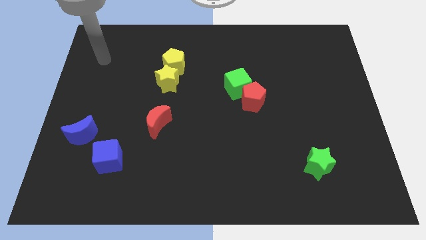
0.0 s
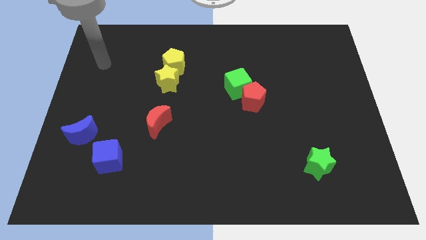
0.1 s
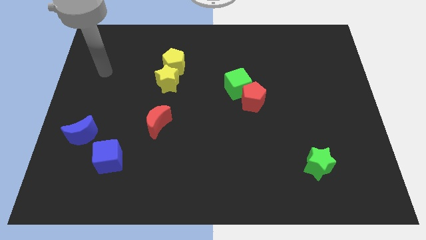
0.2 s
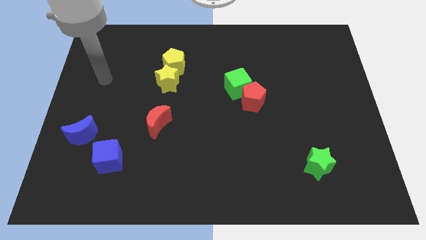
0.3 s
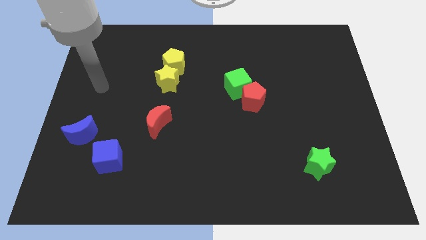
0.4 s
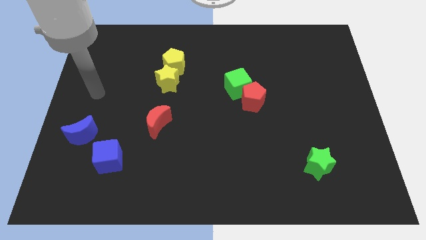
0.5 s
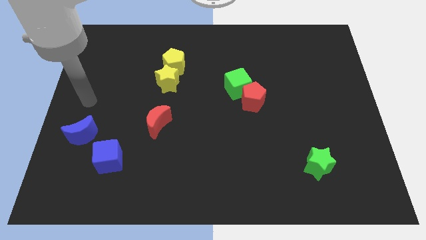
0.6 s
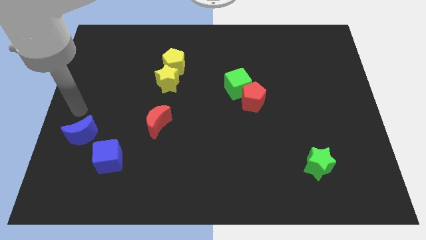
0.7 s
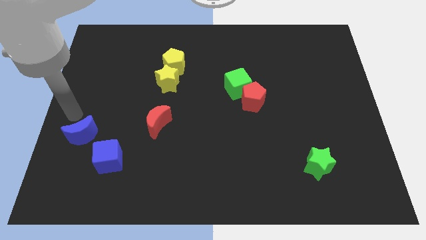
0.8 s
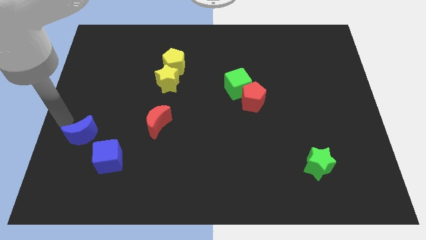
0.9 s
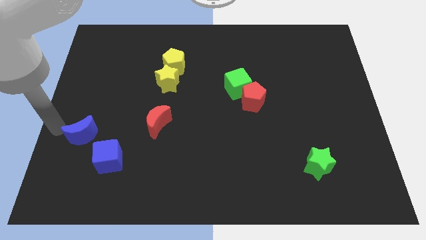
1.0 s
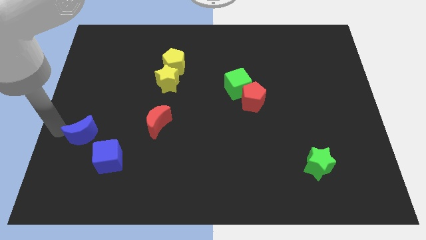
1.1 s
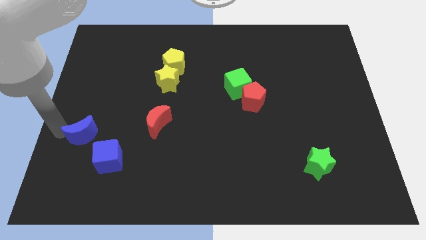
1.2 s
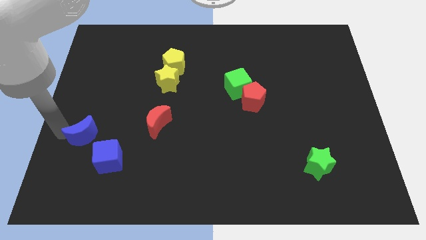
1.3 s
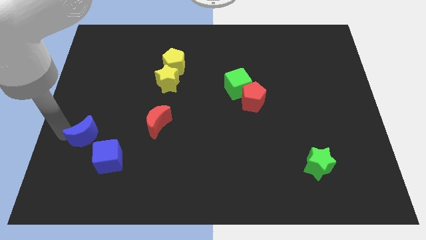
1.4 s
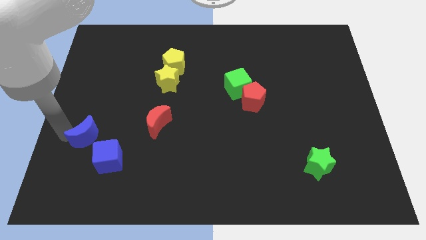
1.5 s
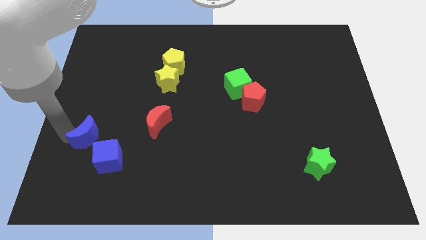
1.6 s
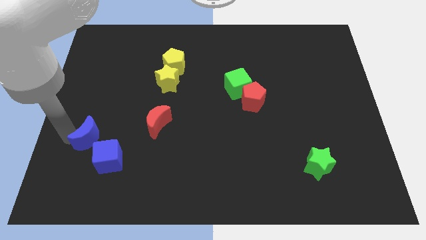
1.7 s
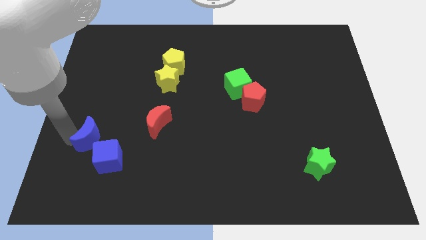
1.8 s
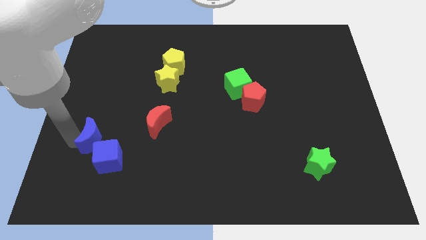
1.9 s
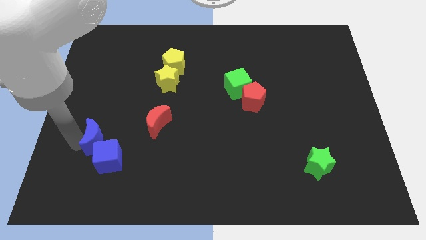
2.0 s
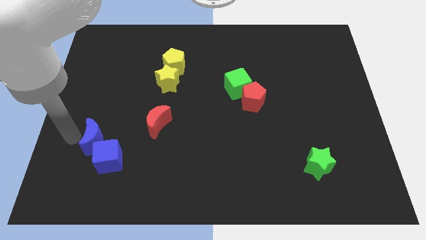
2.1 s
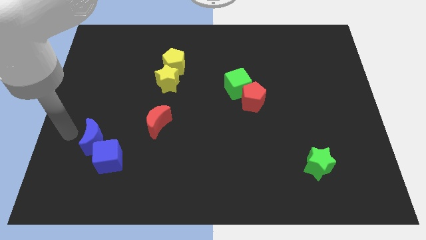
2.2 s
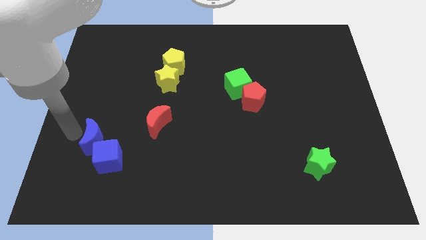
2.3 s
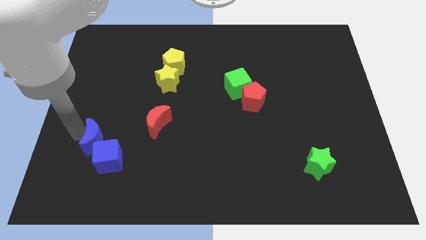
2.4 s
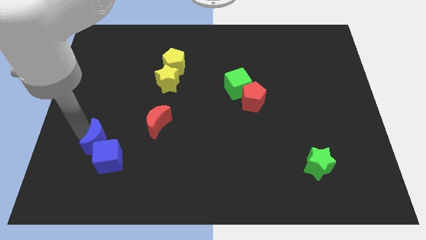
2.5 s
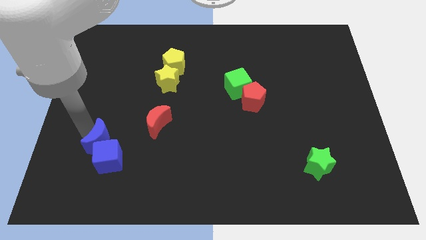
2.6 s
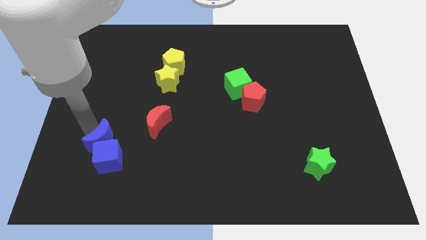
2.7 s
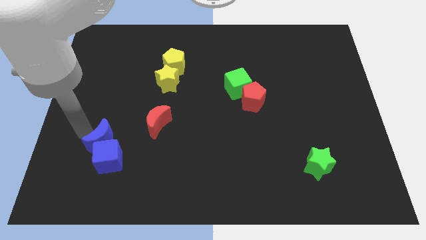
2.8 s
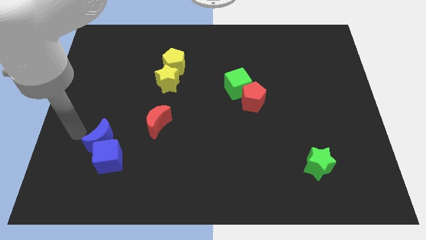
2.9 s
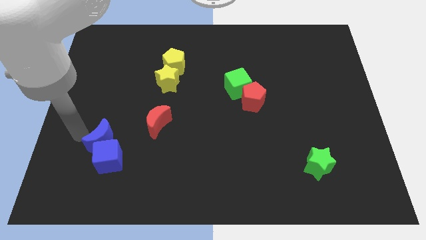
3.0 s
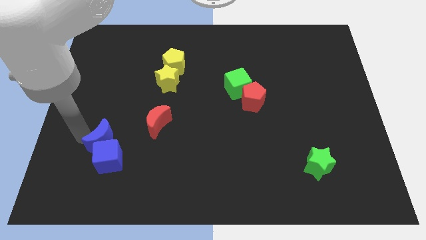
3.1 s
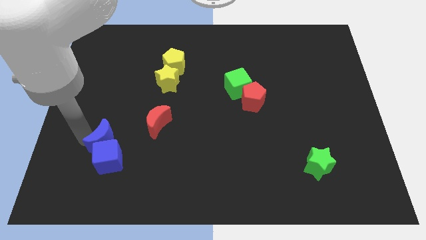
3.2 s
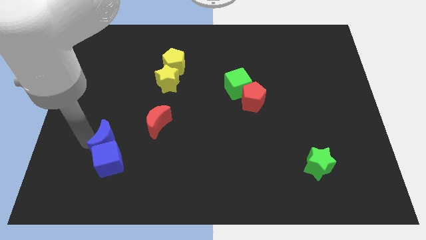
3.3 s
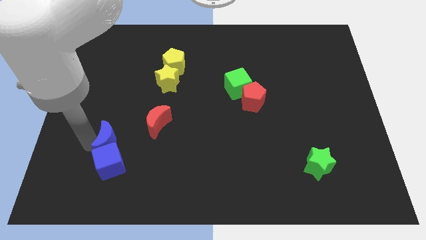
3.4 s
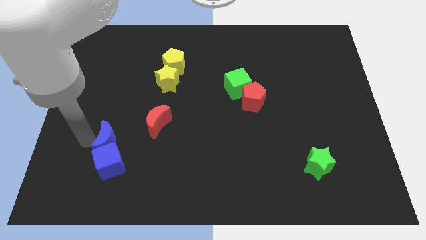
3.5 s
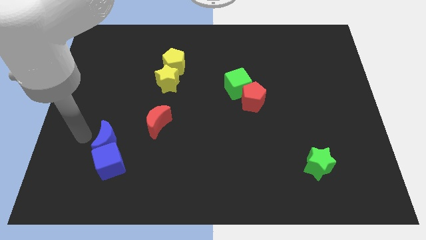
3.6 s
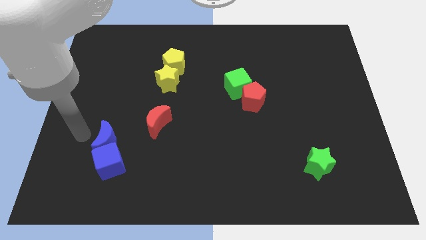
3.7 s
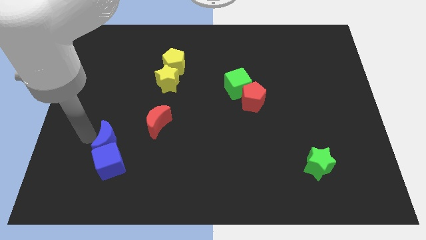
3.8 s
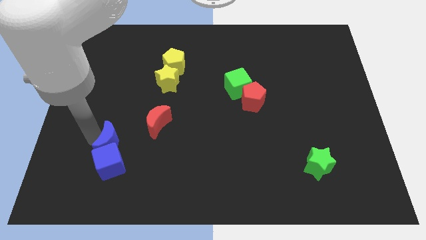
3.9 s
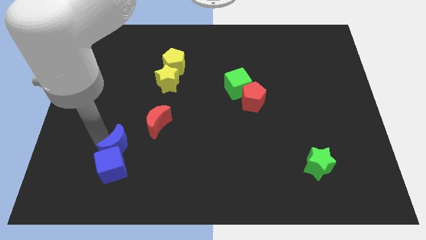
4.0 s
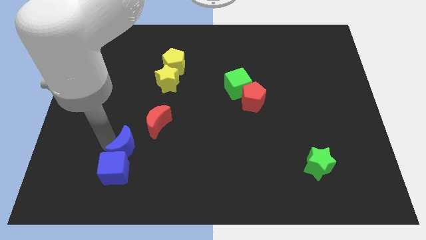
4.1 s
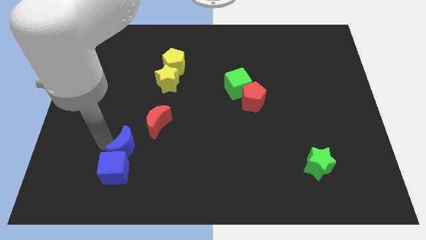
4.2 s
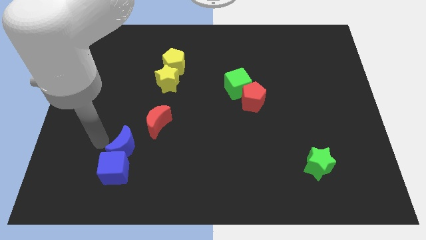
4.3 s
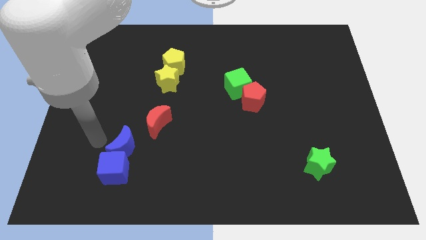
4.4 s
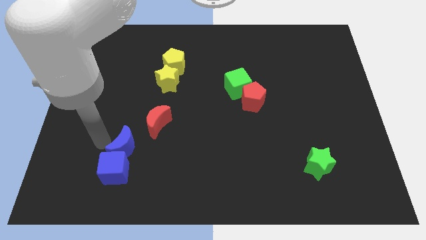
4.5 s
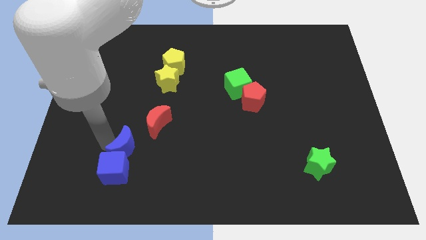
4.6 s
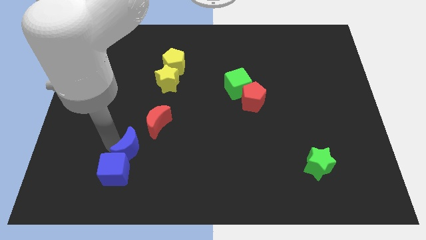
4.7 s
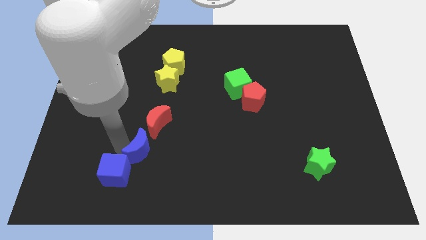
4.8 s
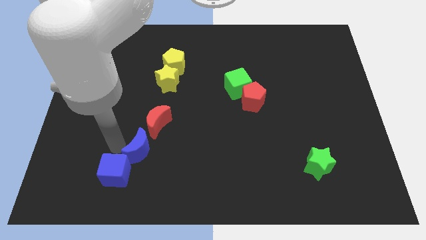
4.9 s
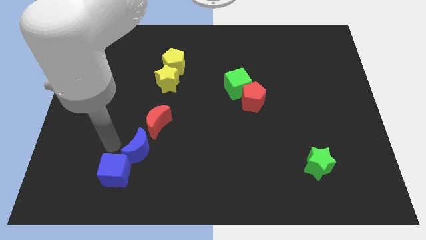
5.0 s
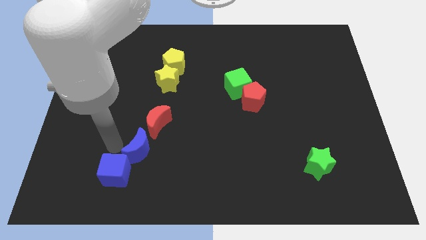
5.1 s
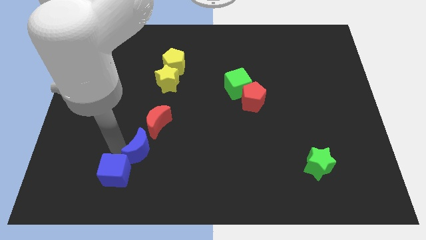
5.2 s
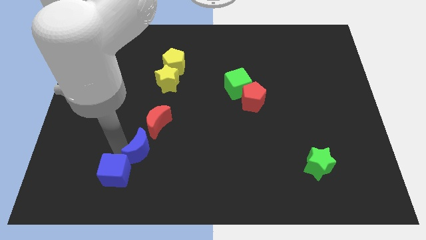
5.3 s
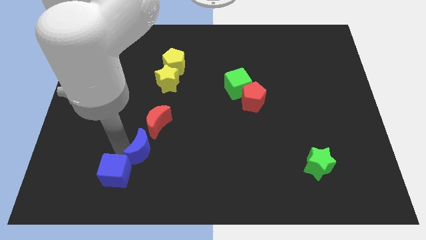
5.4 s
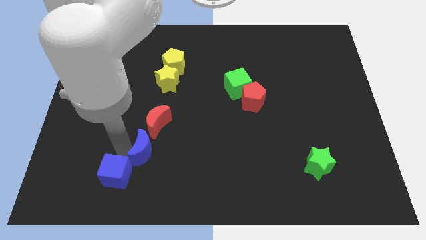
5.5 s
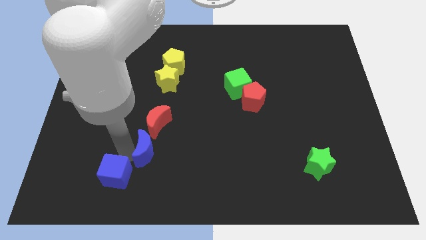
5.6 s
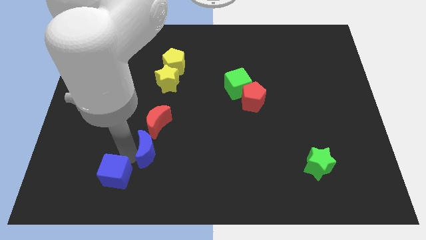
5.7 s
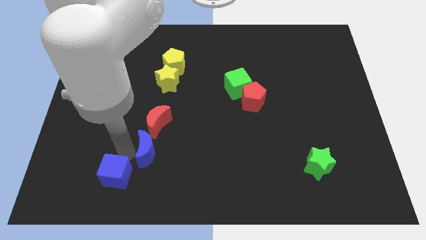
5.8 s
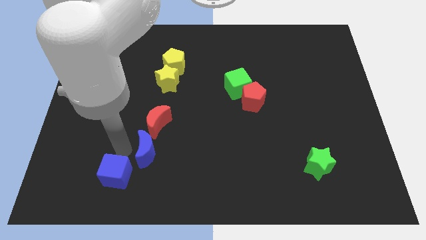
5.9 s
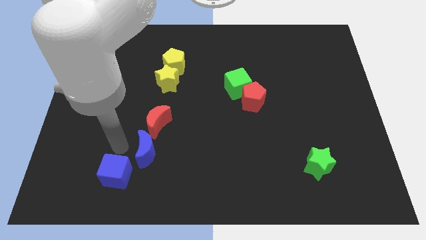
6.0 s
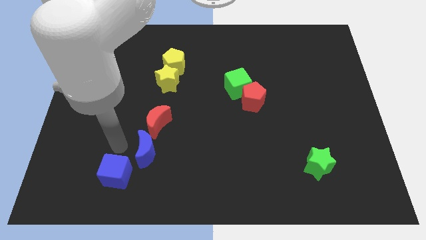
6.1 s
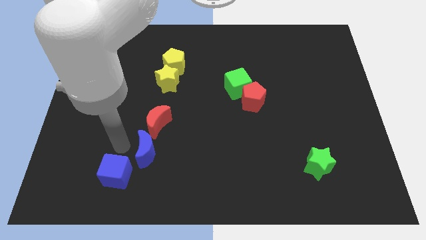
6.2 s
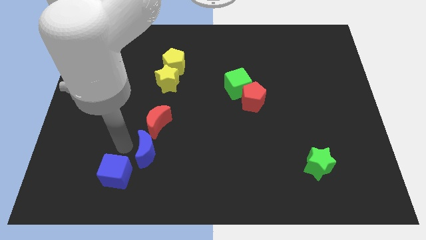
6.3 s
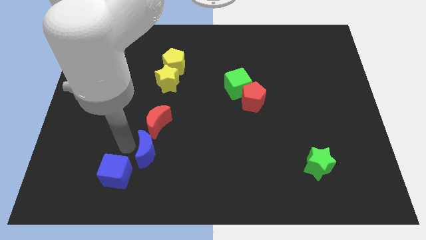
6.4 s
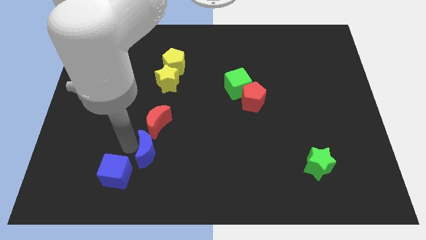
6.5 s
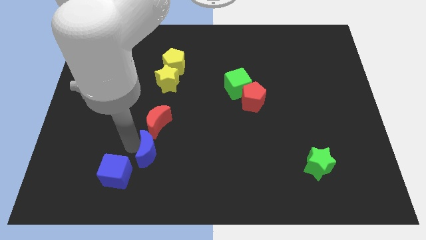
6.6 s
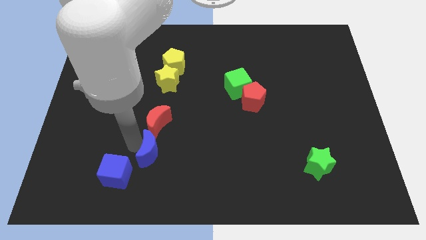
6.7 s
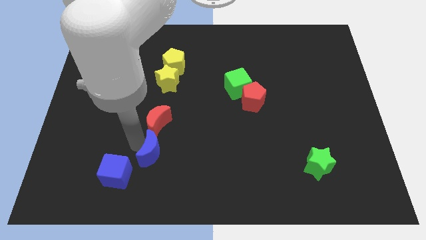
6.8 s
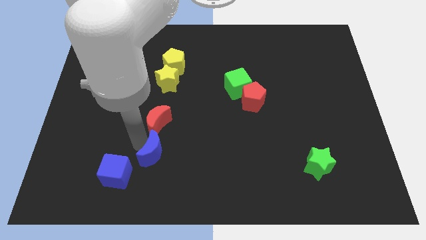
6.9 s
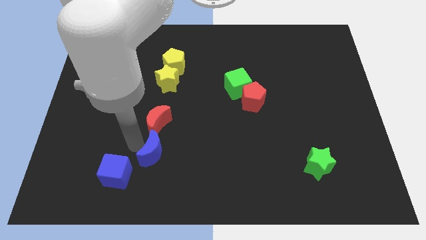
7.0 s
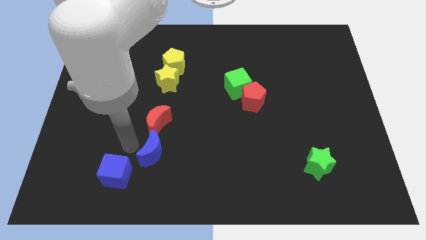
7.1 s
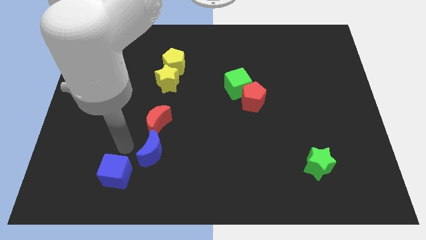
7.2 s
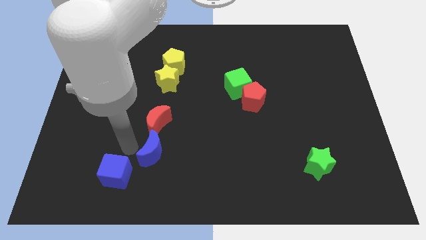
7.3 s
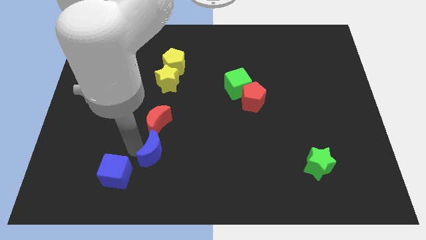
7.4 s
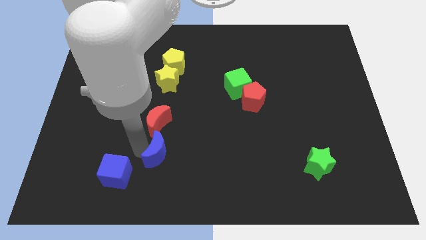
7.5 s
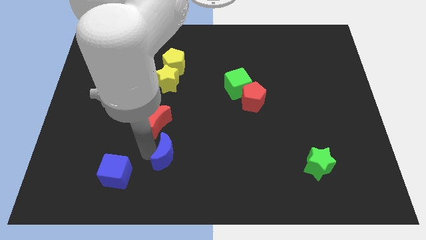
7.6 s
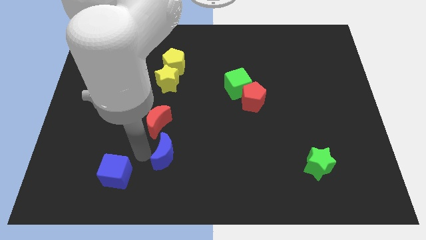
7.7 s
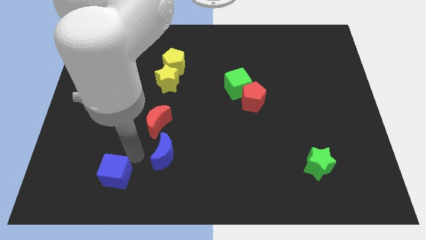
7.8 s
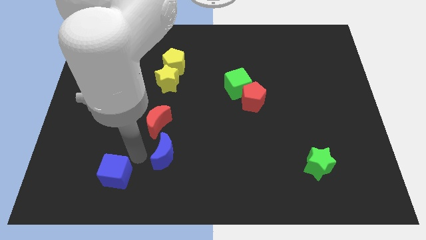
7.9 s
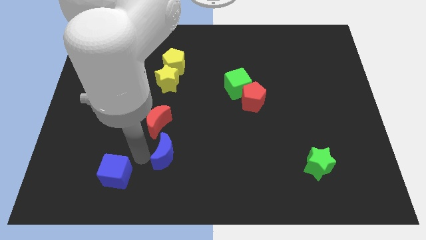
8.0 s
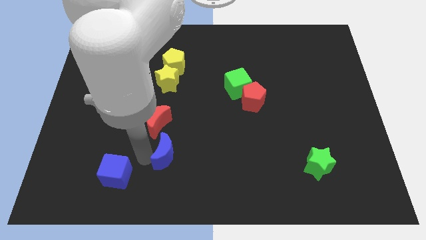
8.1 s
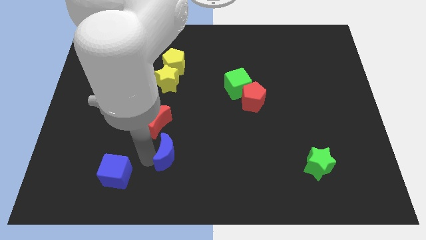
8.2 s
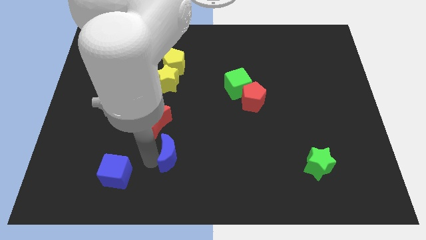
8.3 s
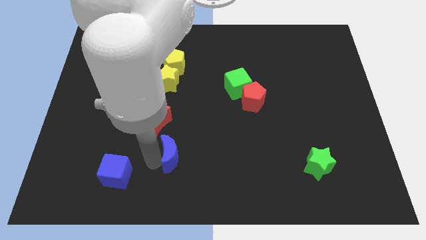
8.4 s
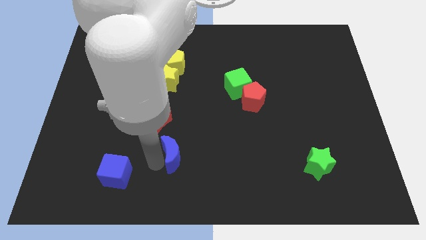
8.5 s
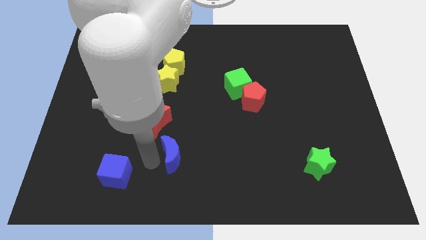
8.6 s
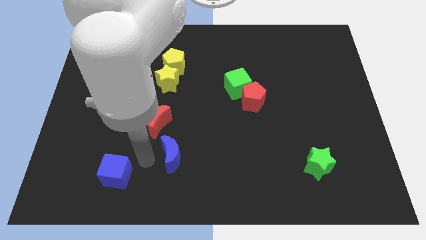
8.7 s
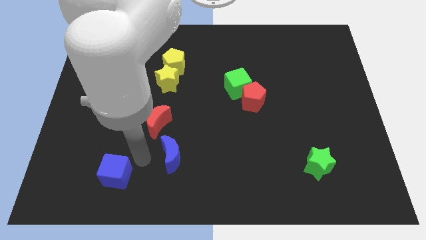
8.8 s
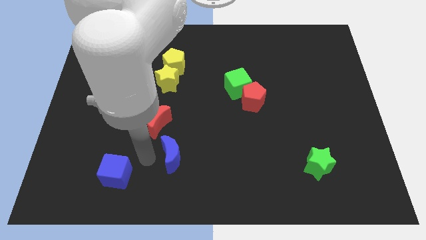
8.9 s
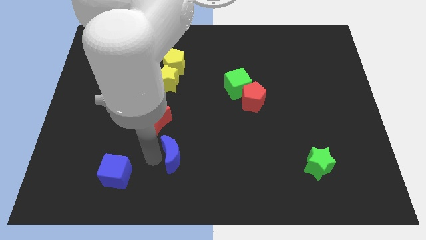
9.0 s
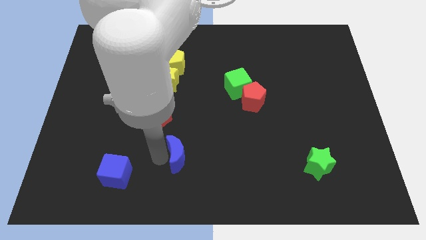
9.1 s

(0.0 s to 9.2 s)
slide the blue moon right
